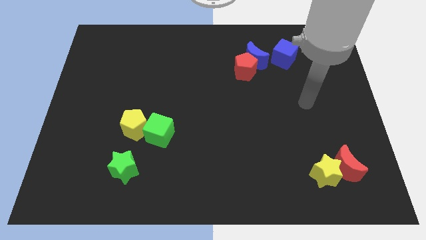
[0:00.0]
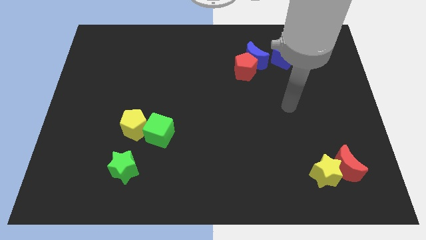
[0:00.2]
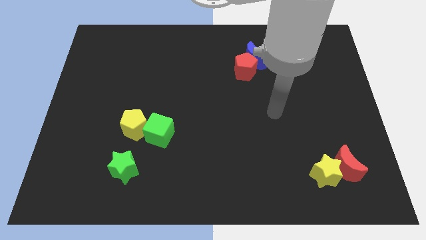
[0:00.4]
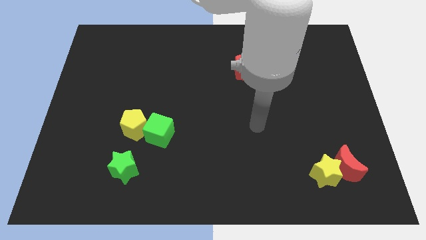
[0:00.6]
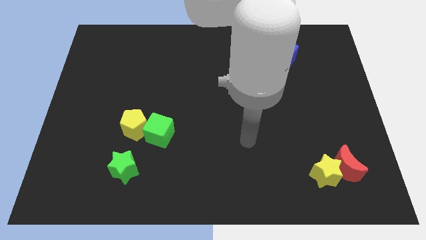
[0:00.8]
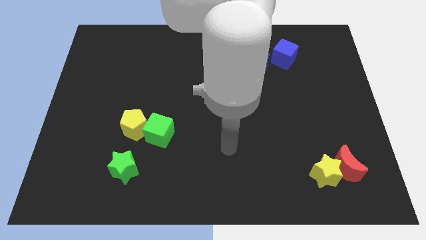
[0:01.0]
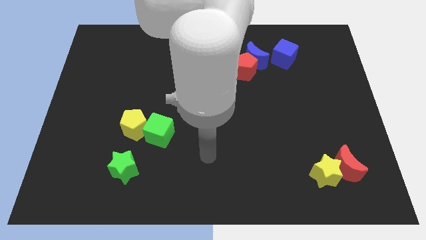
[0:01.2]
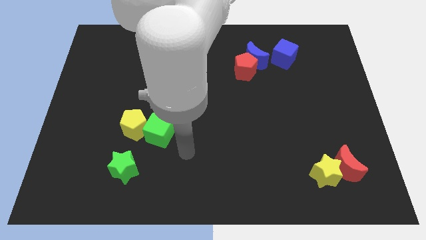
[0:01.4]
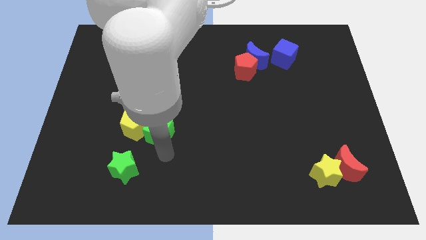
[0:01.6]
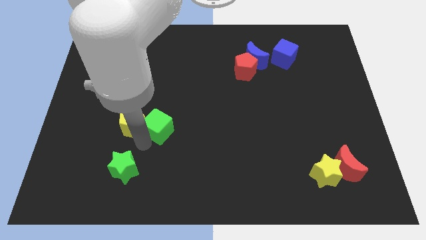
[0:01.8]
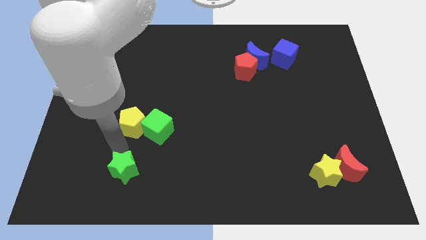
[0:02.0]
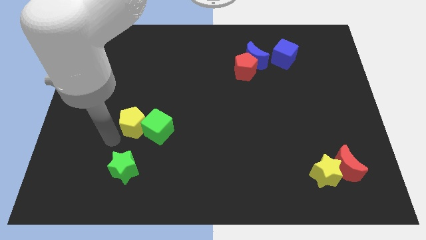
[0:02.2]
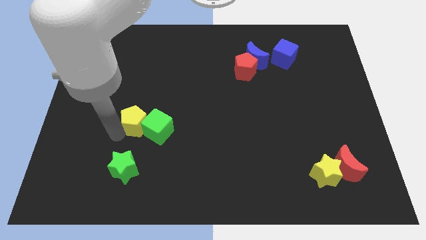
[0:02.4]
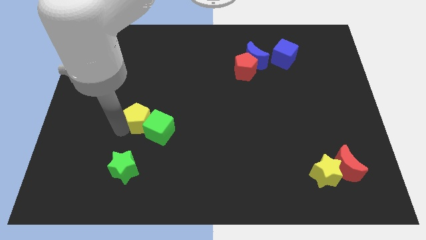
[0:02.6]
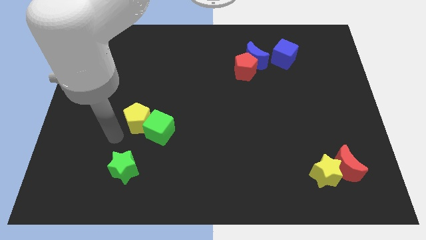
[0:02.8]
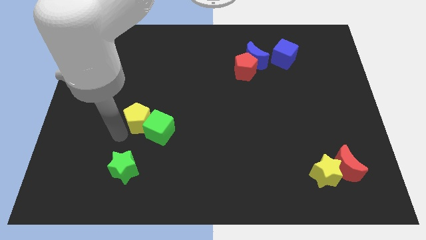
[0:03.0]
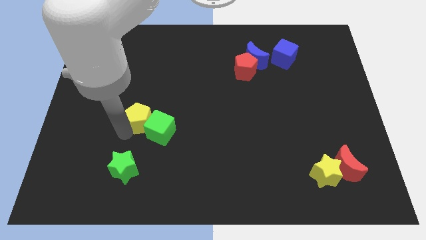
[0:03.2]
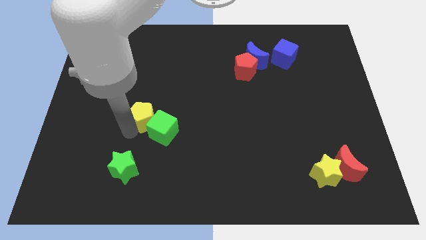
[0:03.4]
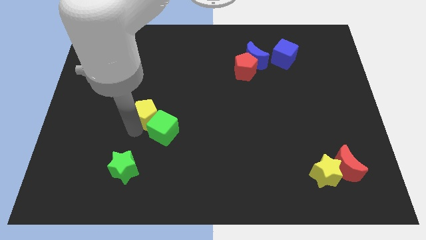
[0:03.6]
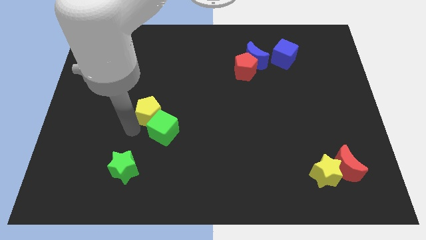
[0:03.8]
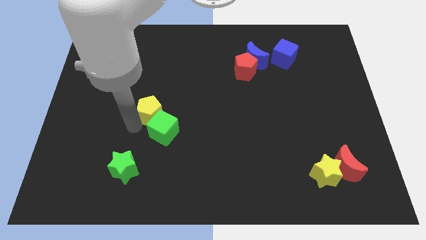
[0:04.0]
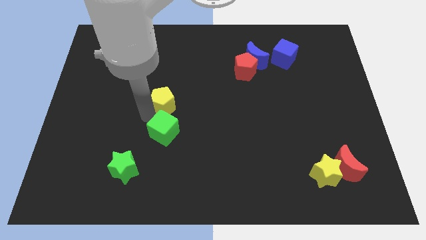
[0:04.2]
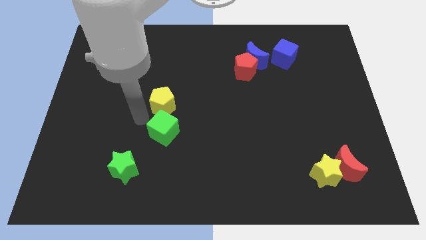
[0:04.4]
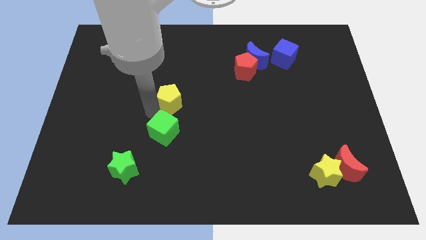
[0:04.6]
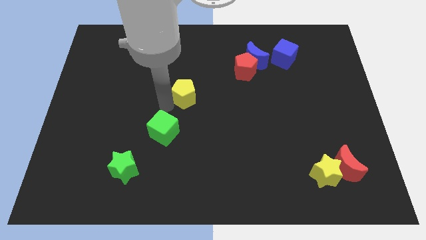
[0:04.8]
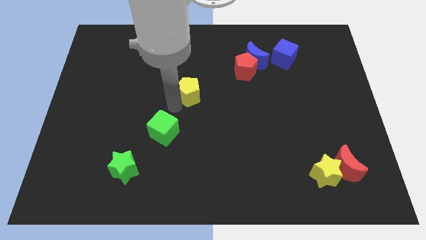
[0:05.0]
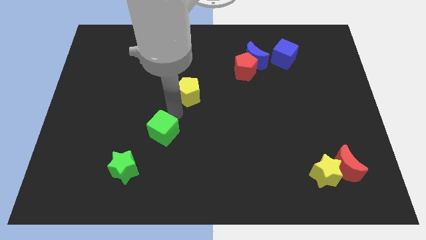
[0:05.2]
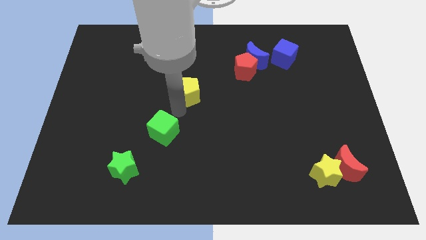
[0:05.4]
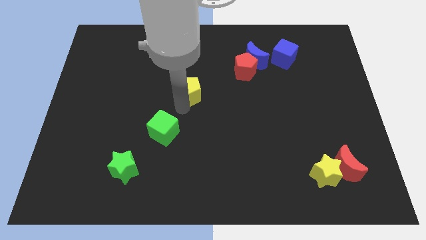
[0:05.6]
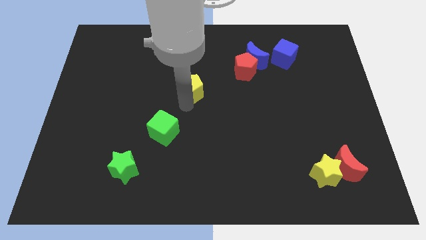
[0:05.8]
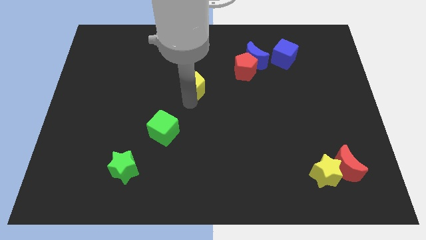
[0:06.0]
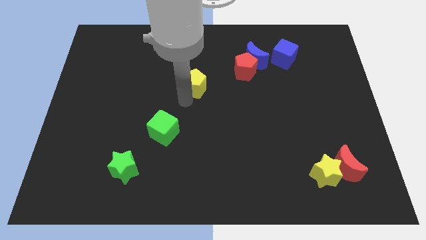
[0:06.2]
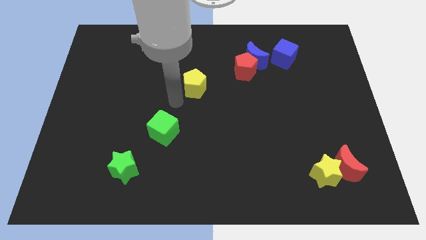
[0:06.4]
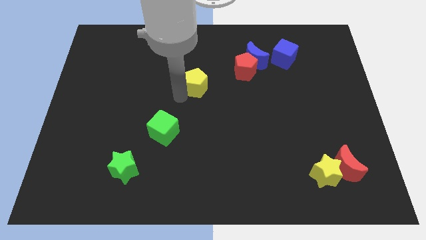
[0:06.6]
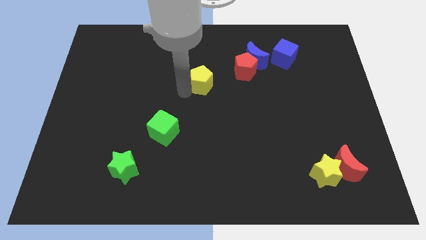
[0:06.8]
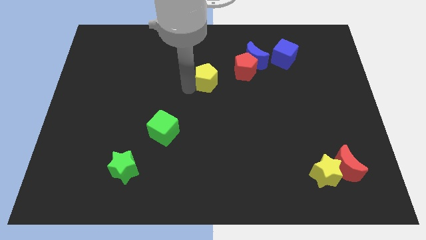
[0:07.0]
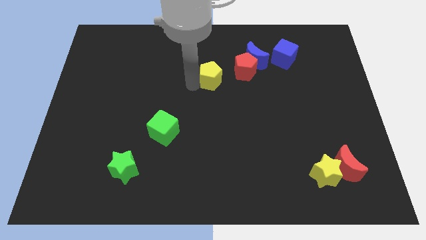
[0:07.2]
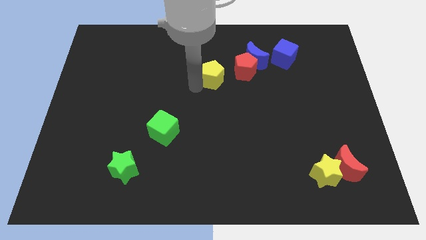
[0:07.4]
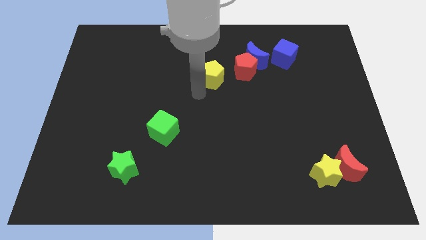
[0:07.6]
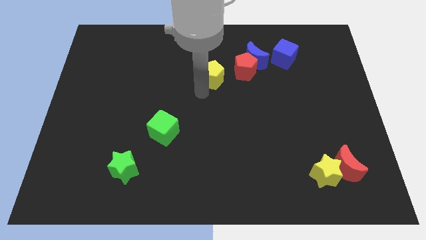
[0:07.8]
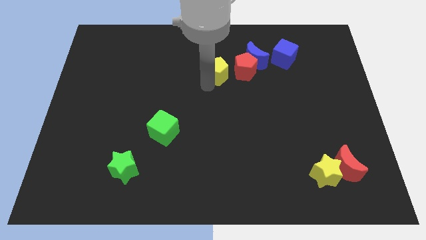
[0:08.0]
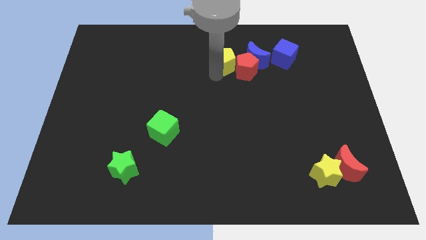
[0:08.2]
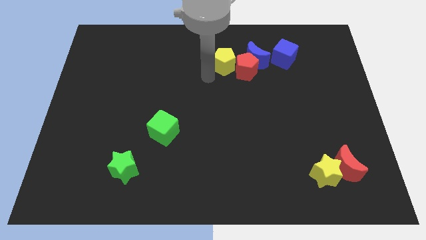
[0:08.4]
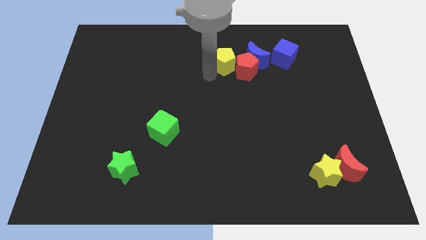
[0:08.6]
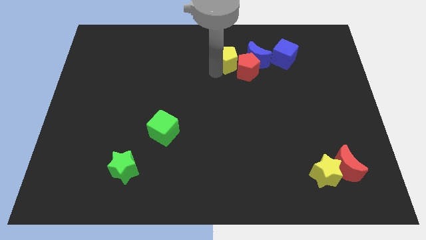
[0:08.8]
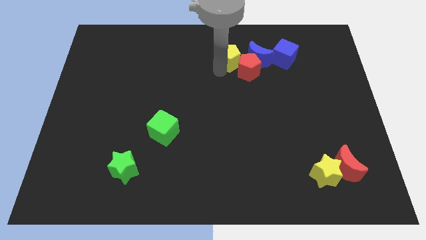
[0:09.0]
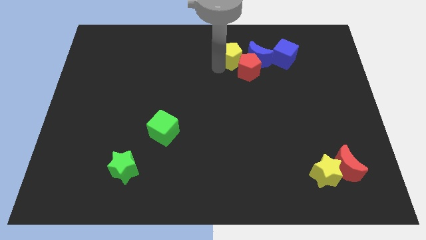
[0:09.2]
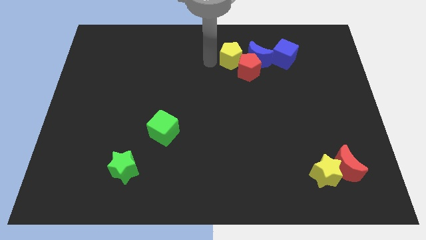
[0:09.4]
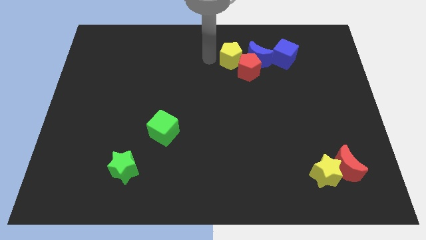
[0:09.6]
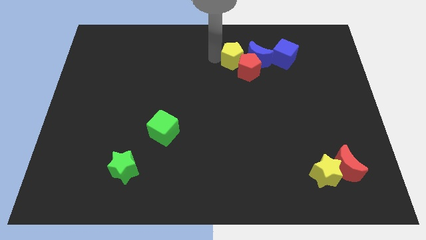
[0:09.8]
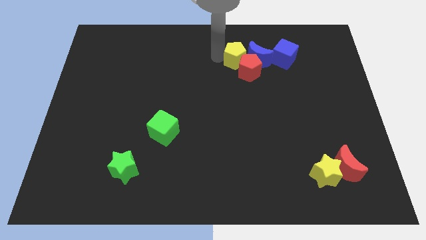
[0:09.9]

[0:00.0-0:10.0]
slide the yellow pentagon next to the blue moon

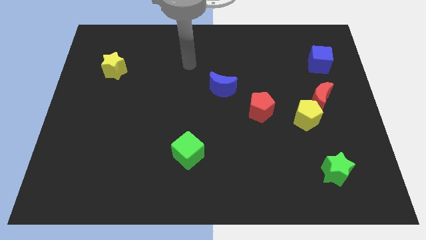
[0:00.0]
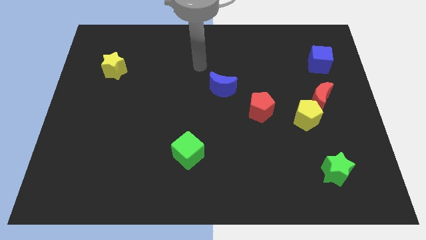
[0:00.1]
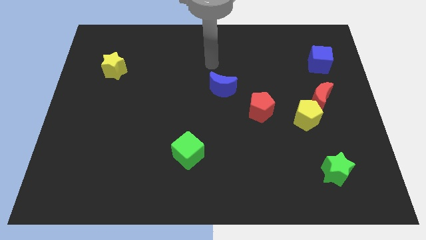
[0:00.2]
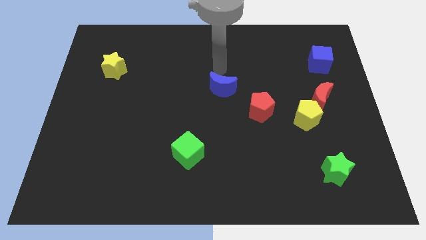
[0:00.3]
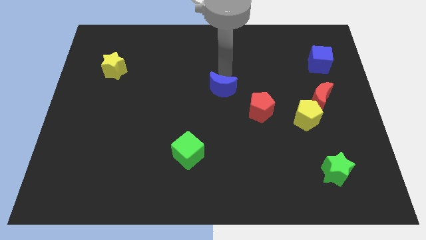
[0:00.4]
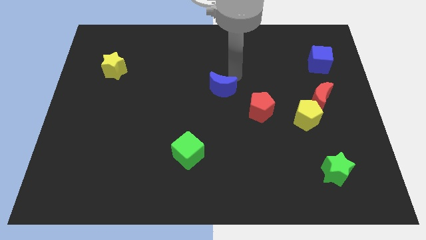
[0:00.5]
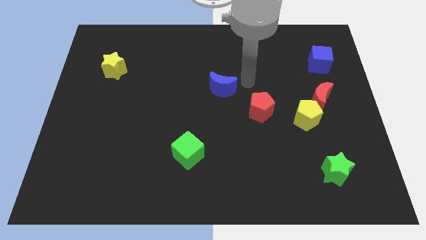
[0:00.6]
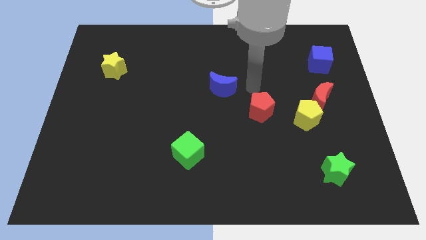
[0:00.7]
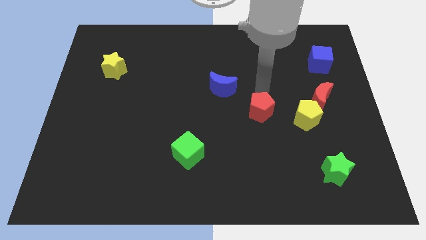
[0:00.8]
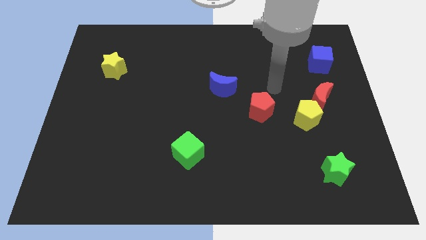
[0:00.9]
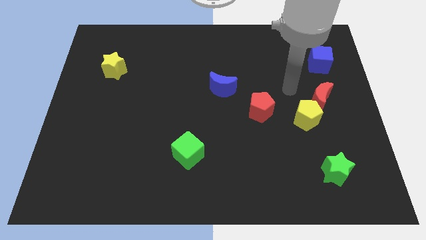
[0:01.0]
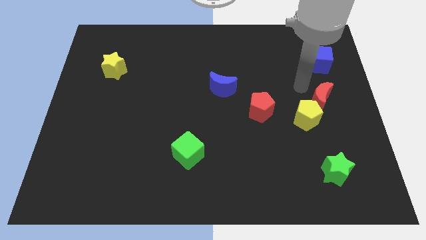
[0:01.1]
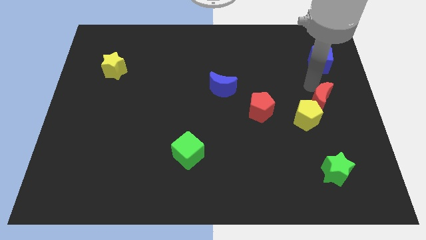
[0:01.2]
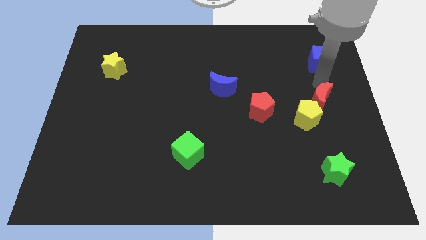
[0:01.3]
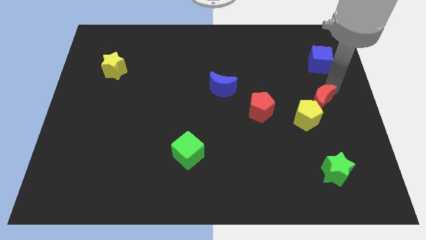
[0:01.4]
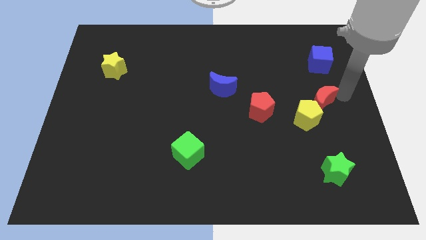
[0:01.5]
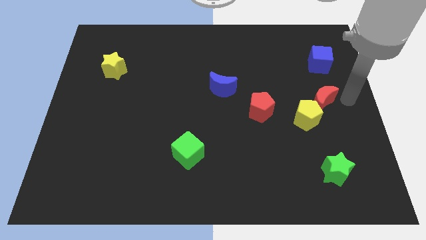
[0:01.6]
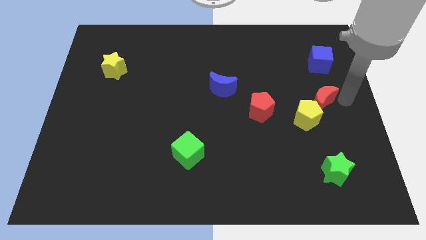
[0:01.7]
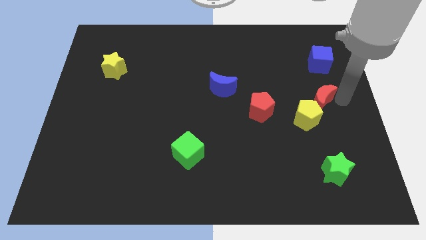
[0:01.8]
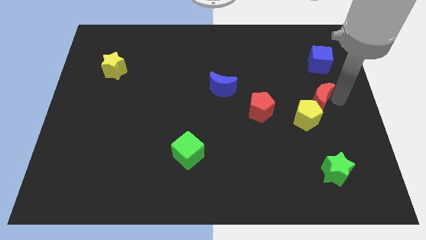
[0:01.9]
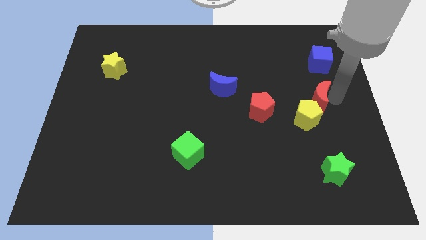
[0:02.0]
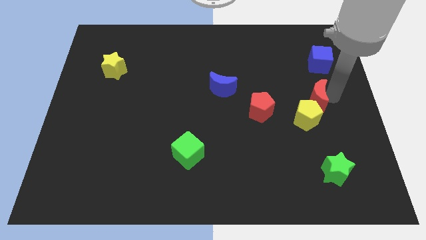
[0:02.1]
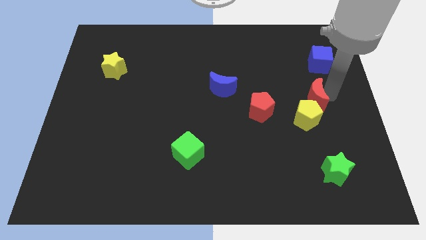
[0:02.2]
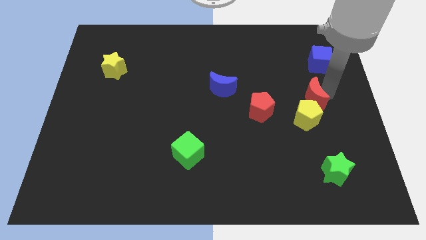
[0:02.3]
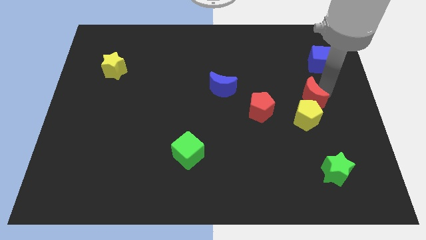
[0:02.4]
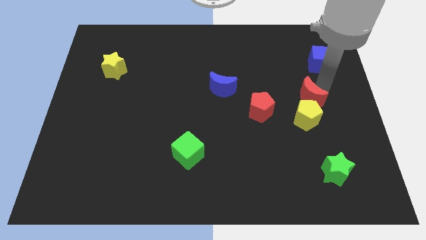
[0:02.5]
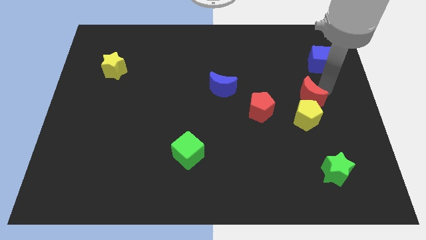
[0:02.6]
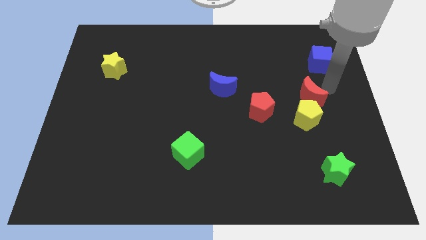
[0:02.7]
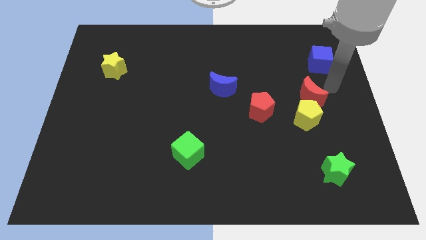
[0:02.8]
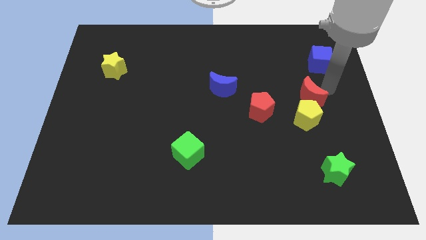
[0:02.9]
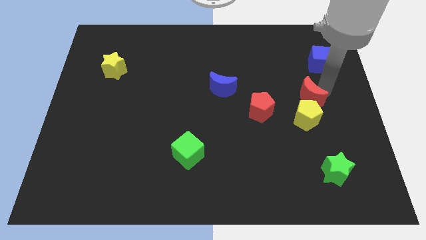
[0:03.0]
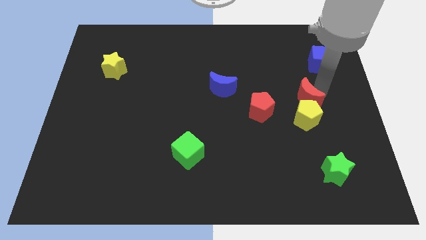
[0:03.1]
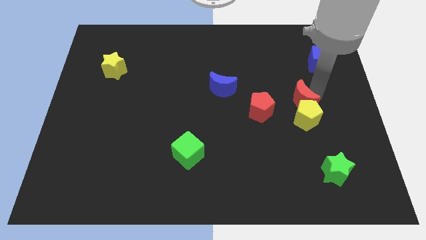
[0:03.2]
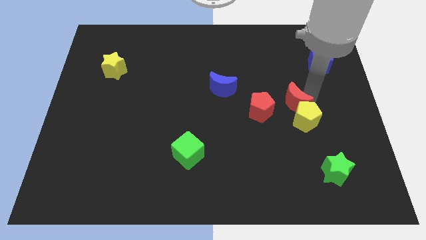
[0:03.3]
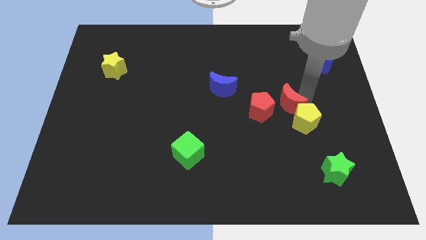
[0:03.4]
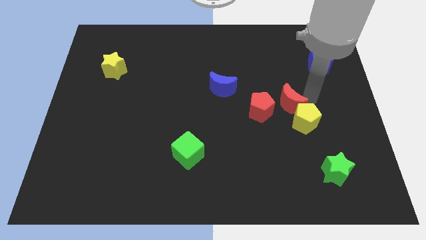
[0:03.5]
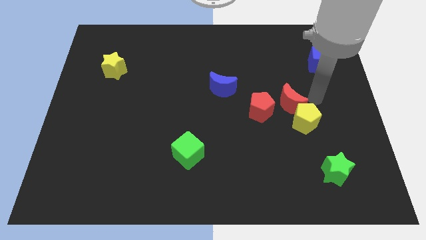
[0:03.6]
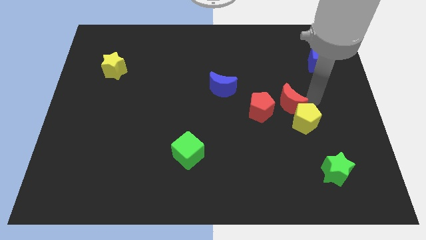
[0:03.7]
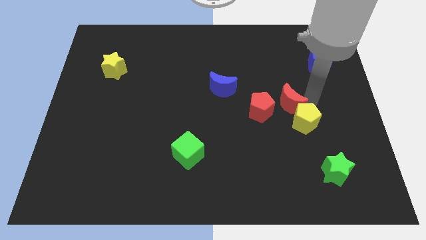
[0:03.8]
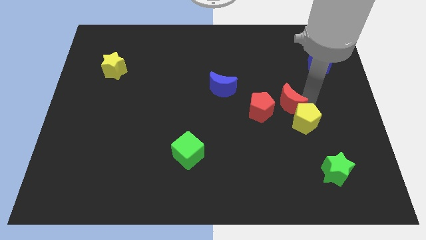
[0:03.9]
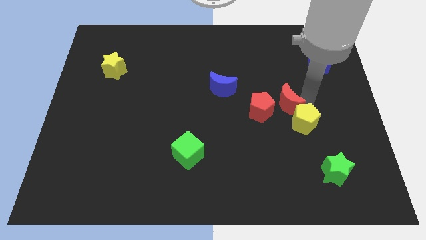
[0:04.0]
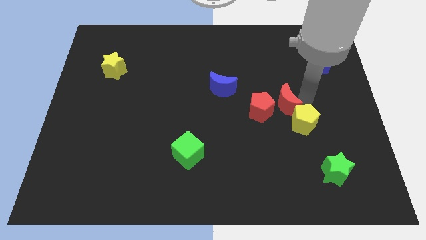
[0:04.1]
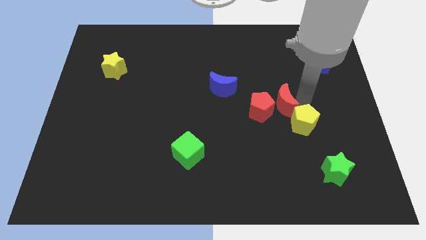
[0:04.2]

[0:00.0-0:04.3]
move the red moon next to the red pentagon
